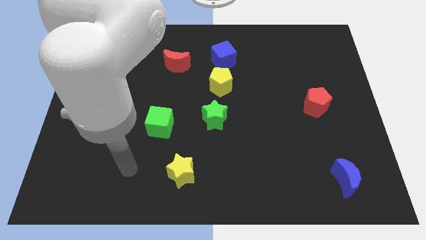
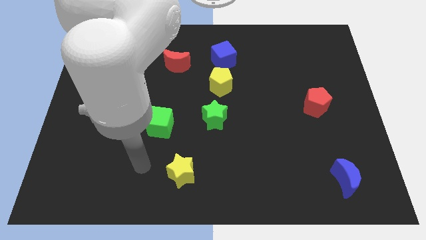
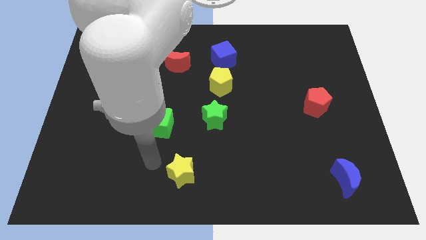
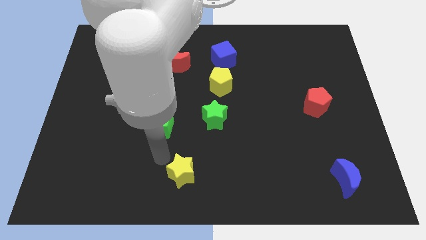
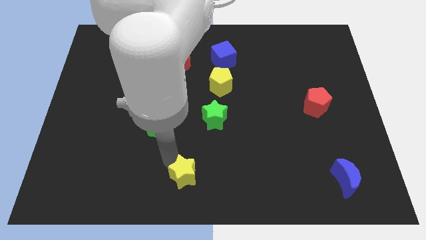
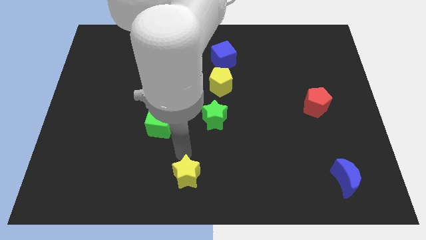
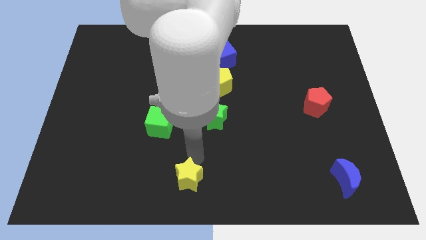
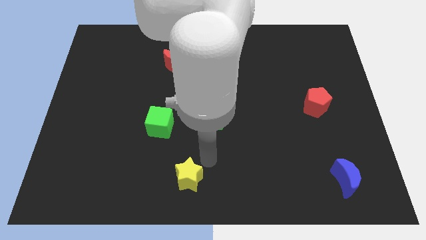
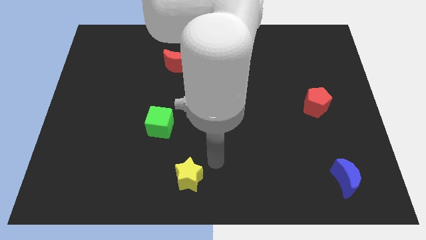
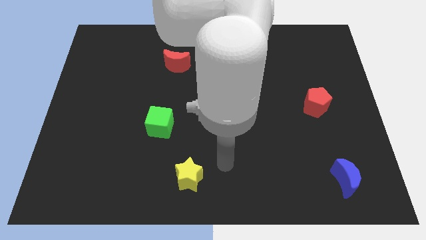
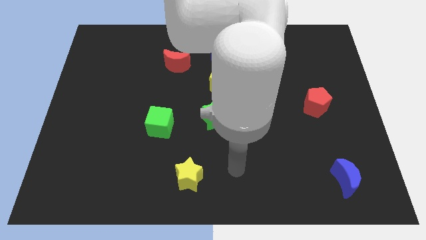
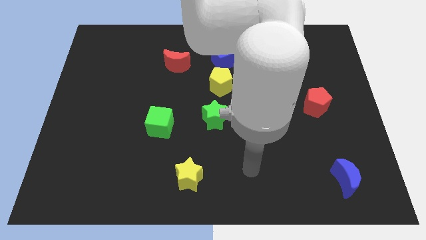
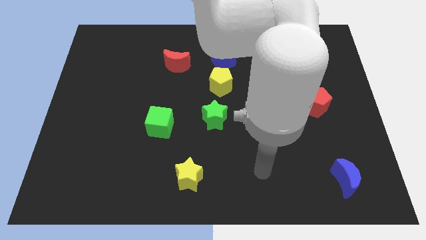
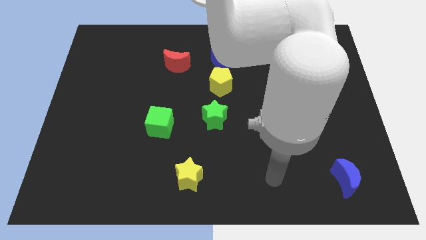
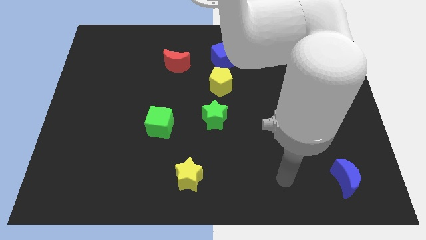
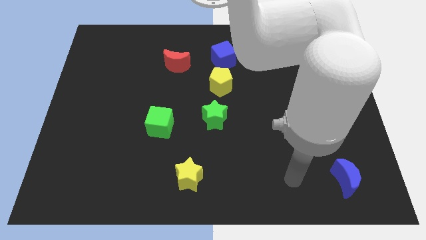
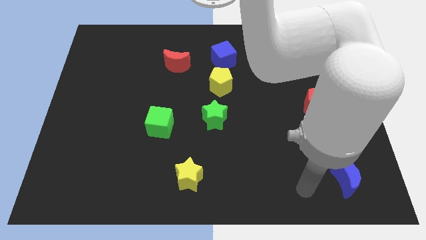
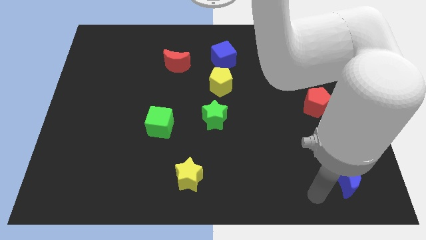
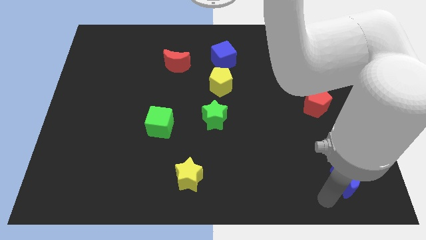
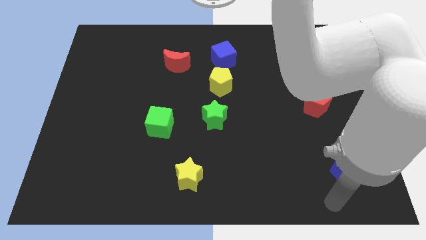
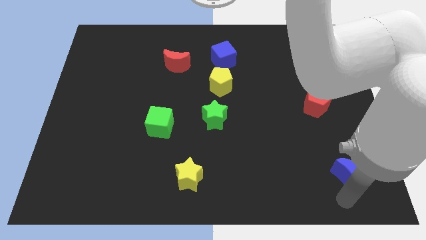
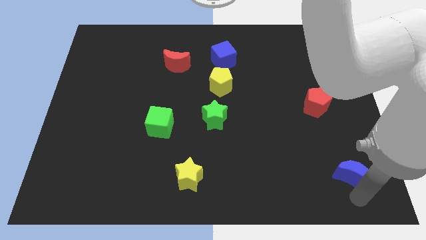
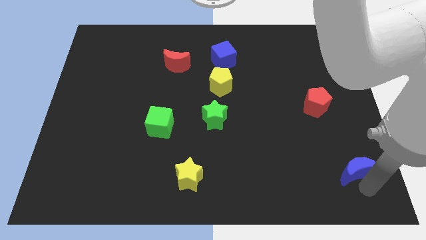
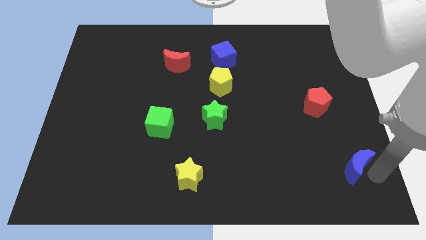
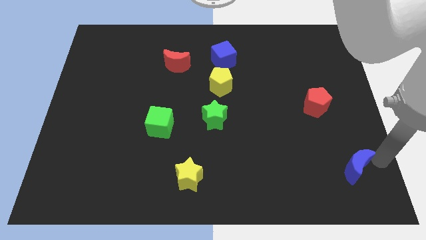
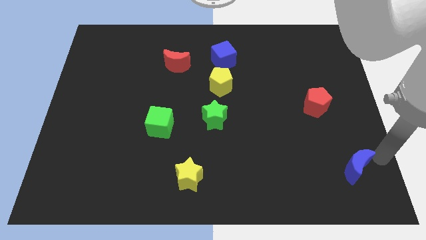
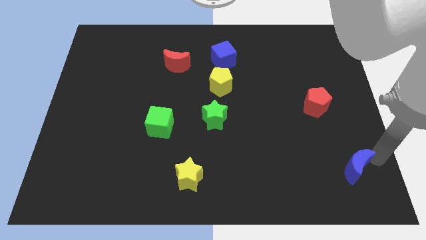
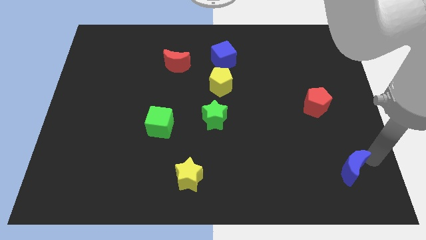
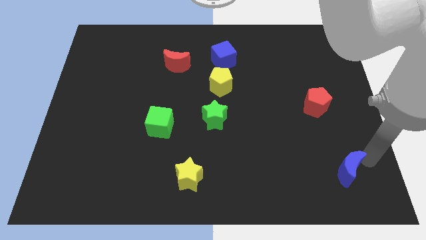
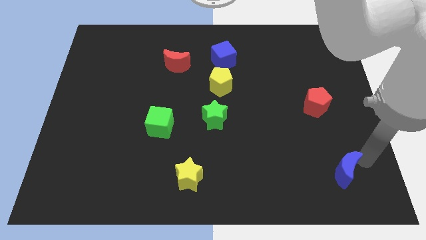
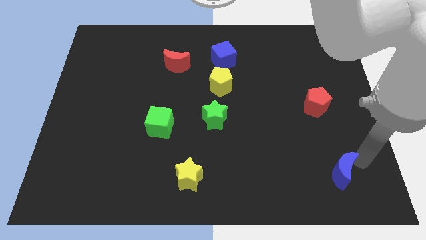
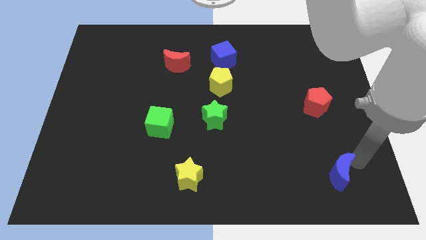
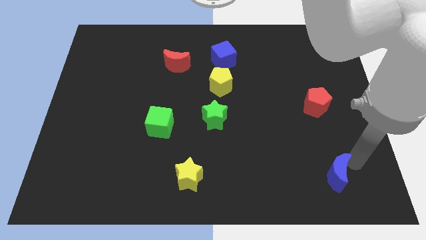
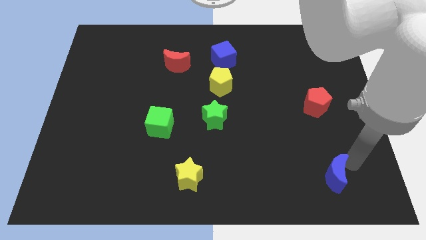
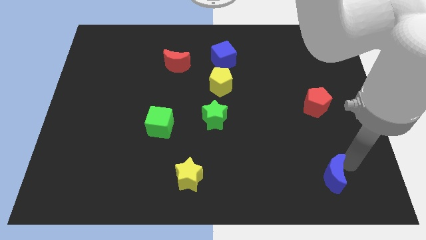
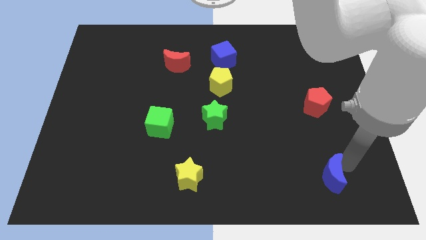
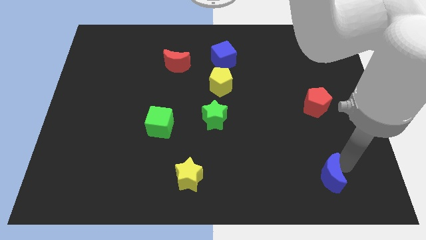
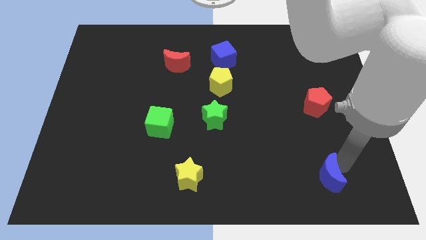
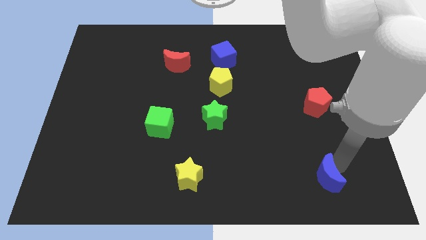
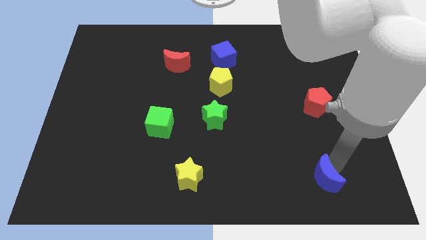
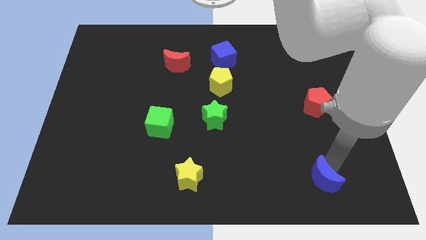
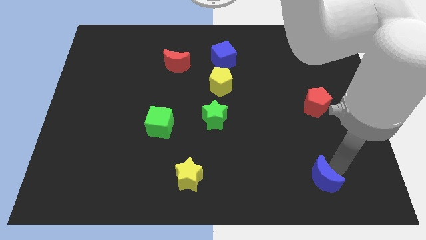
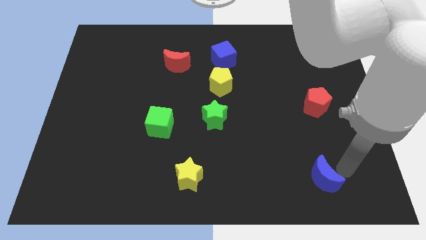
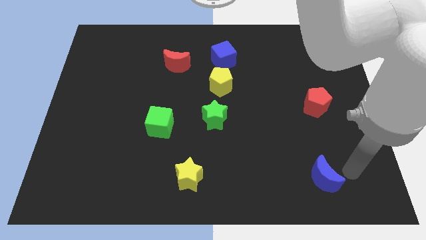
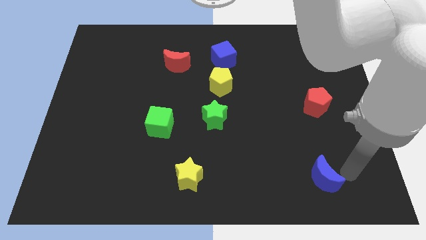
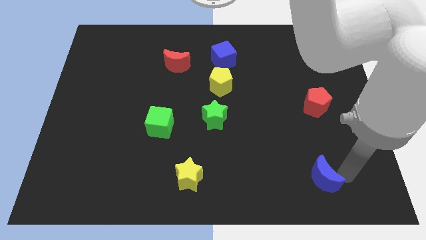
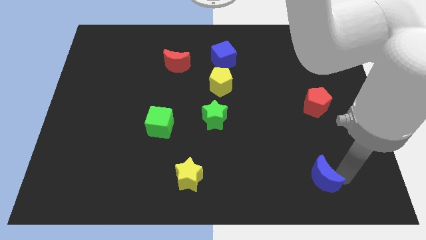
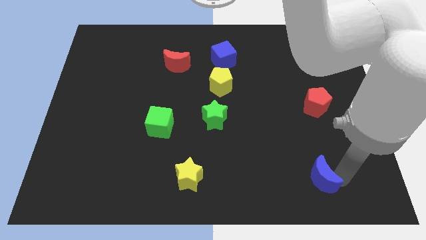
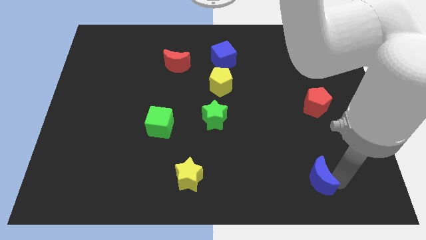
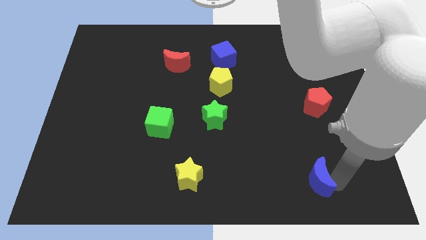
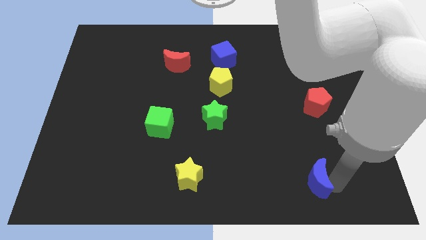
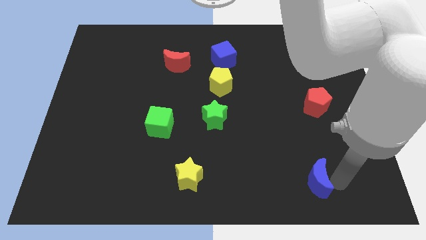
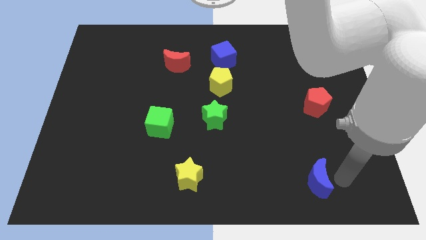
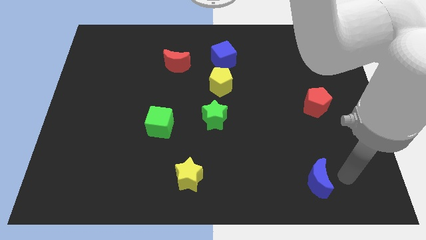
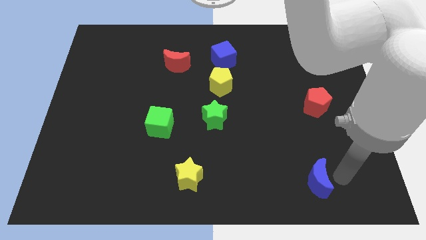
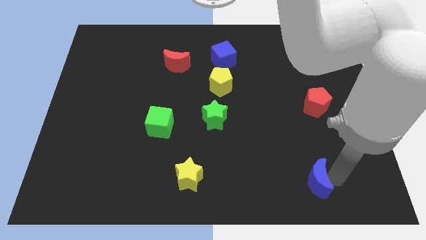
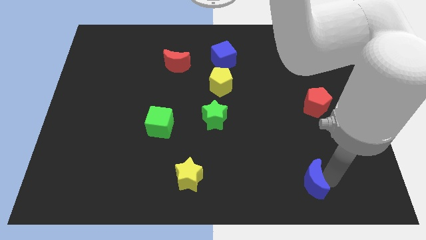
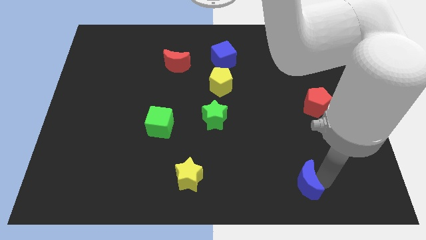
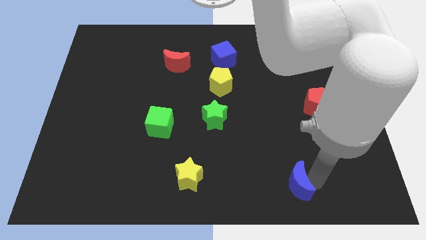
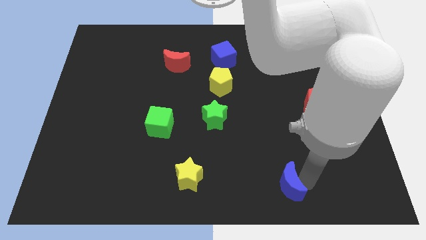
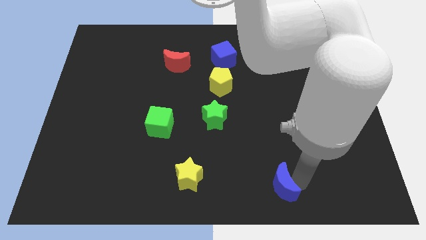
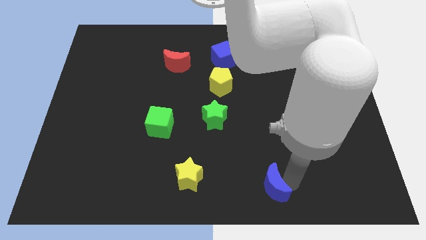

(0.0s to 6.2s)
move the blue moon to the bottom

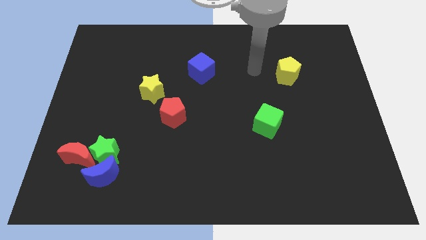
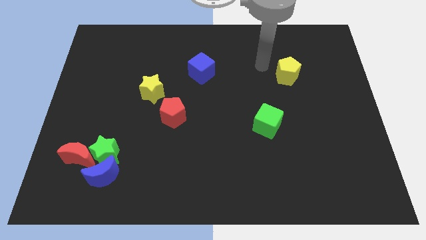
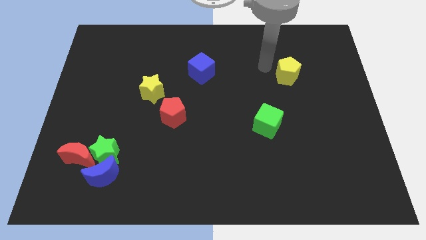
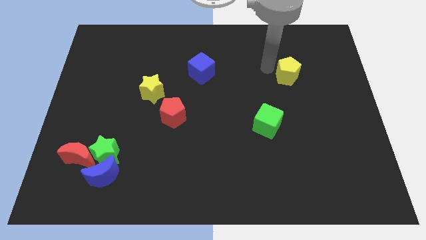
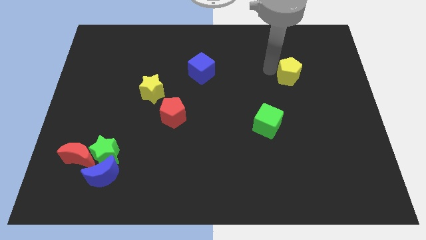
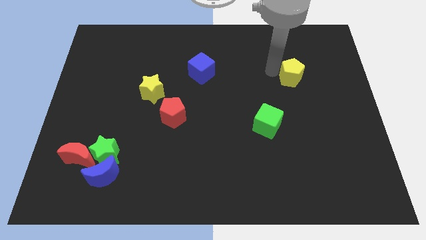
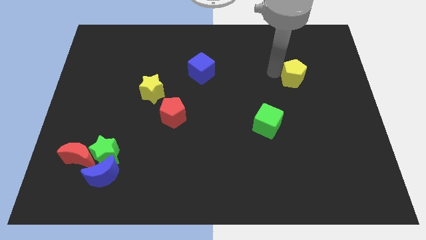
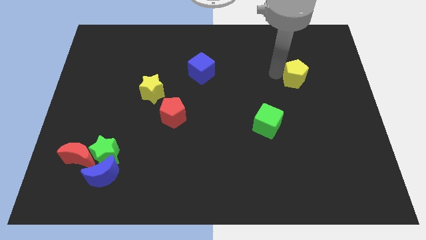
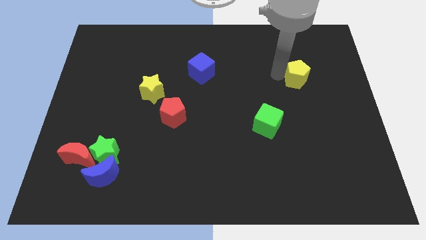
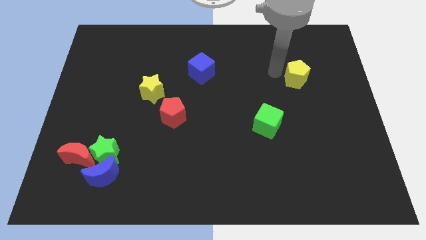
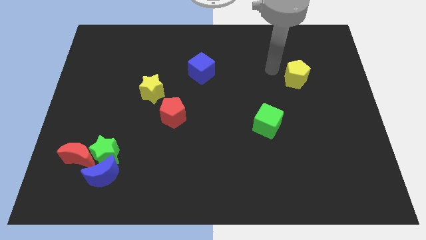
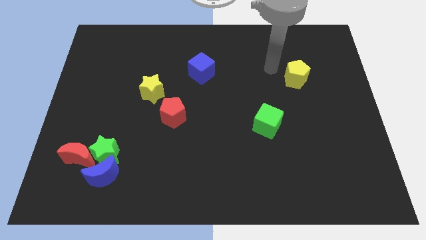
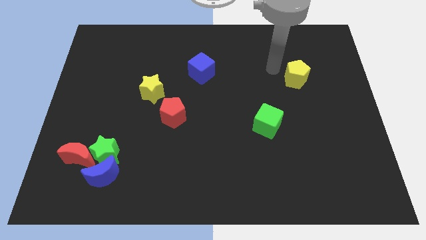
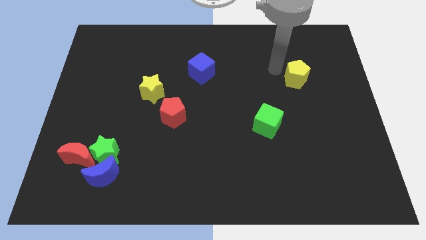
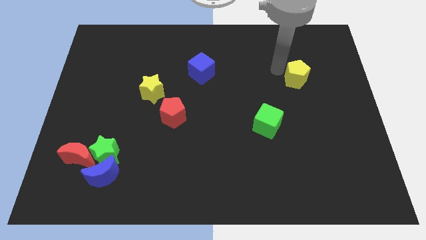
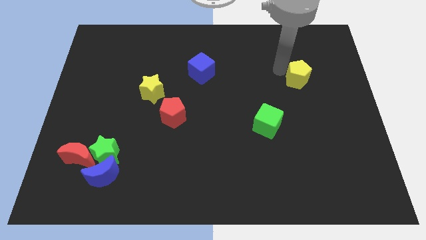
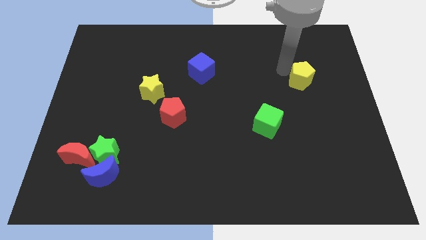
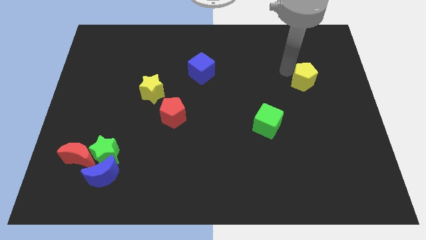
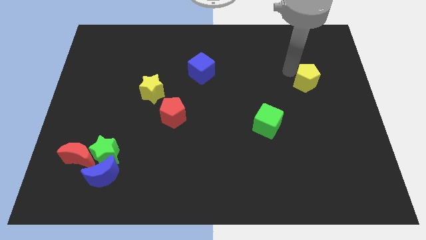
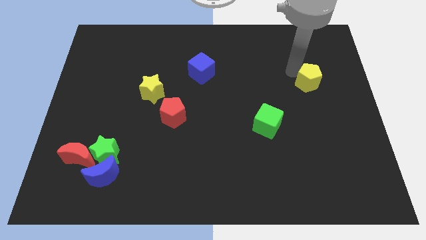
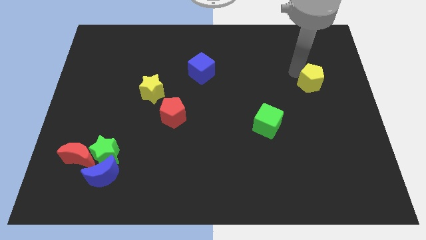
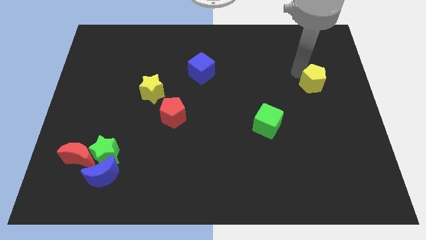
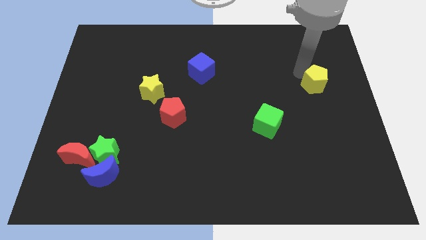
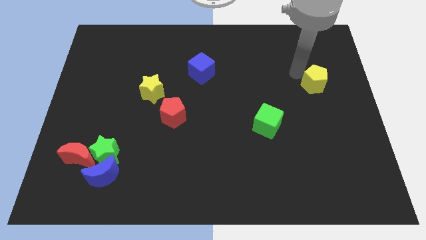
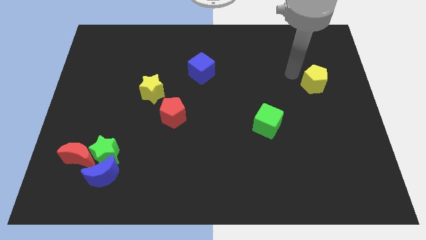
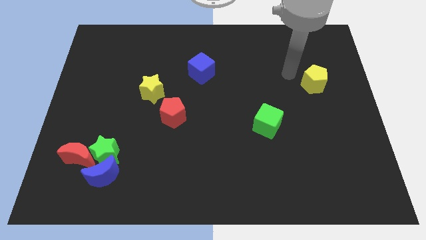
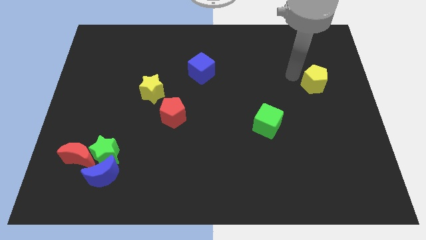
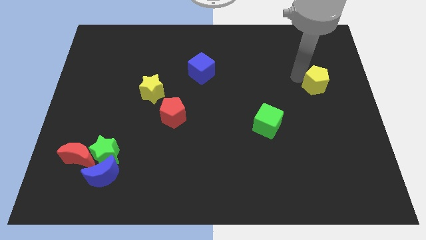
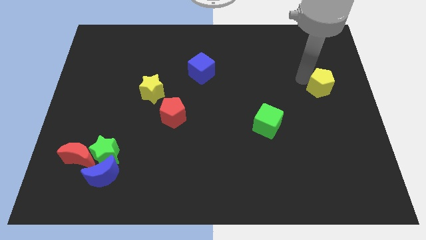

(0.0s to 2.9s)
move the yellow pentagon to the right side of the board
